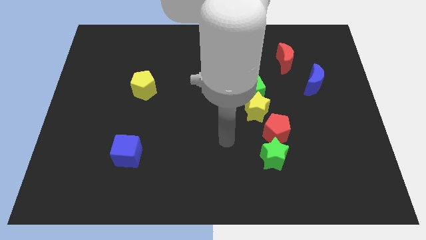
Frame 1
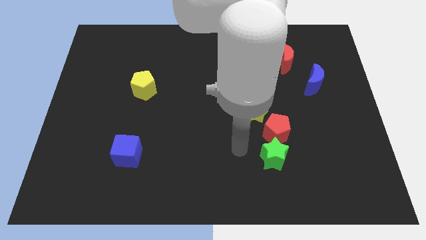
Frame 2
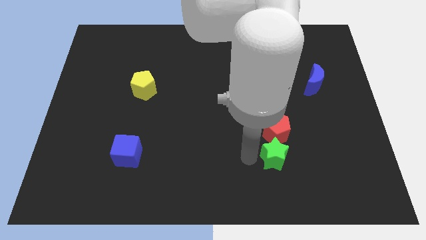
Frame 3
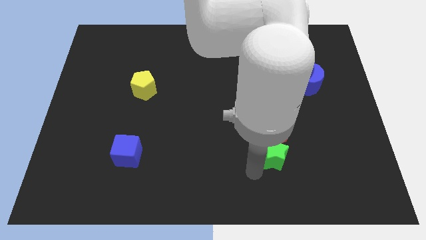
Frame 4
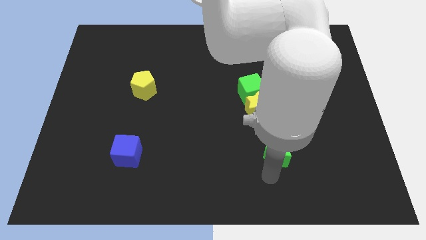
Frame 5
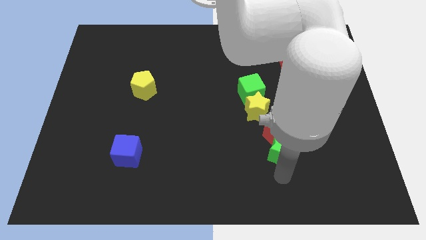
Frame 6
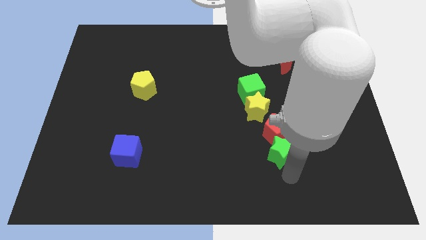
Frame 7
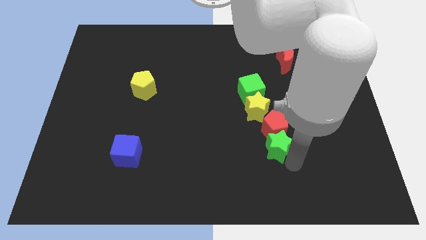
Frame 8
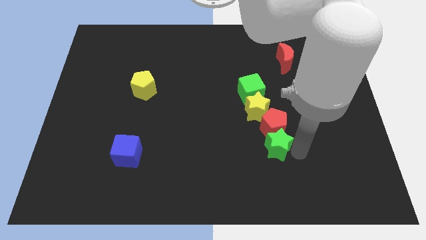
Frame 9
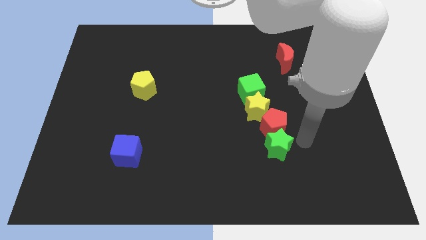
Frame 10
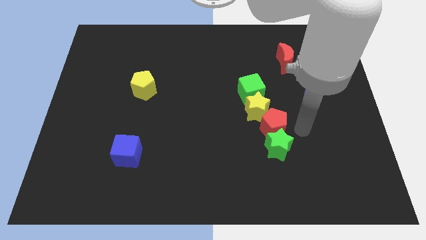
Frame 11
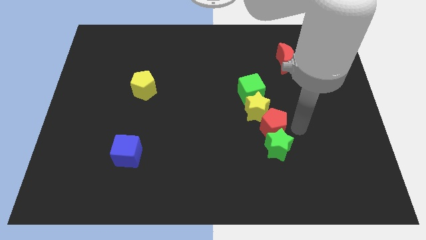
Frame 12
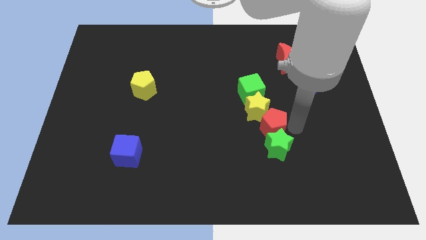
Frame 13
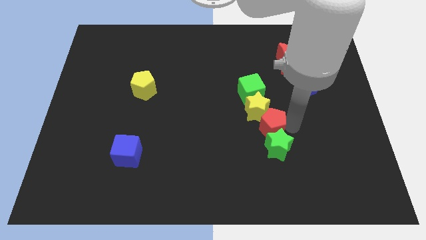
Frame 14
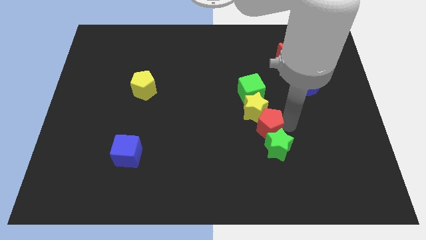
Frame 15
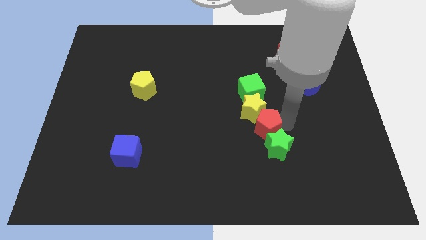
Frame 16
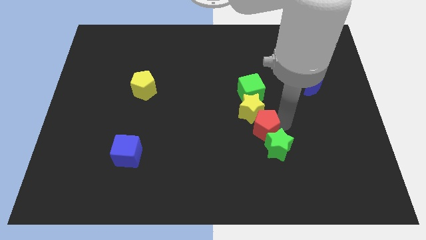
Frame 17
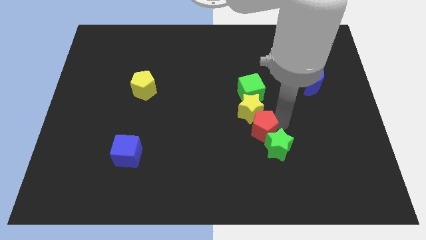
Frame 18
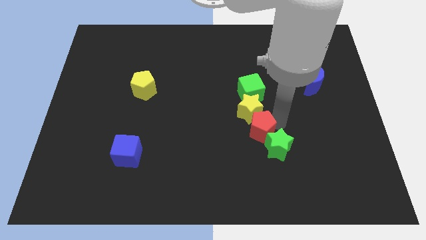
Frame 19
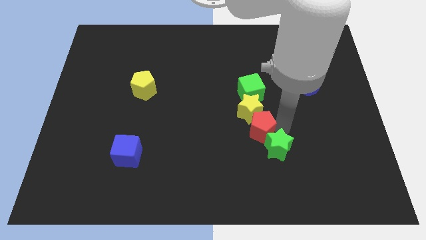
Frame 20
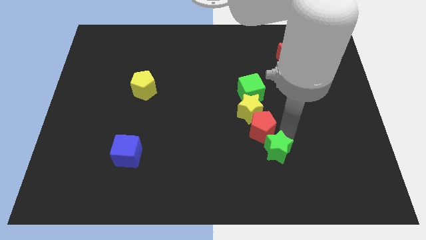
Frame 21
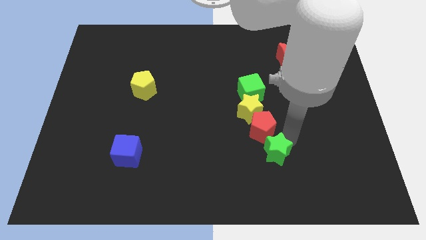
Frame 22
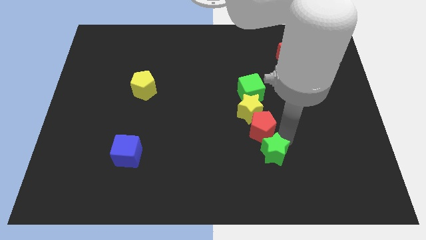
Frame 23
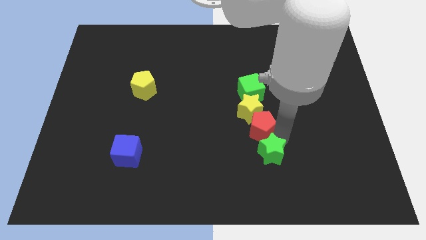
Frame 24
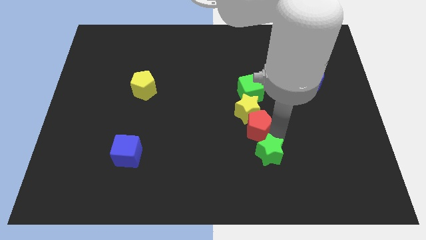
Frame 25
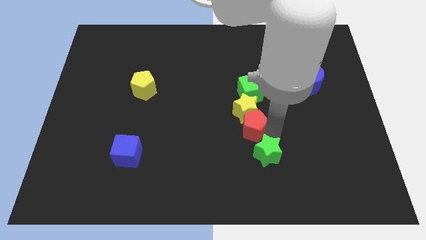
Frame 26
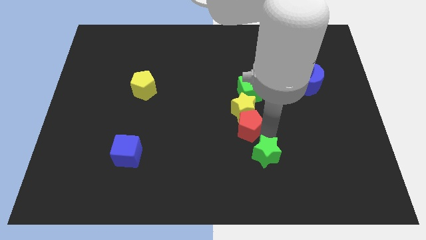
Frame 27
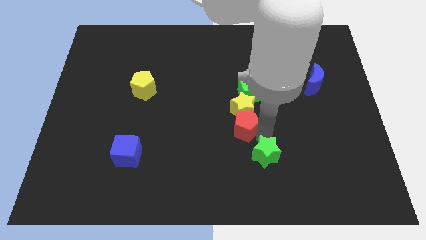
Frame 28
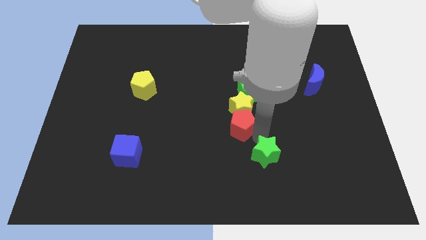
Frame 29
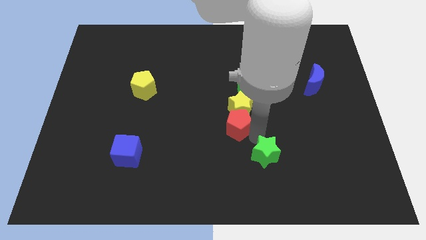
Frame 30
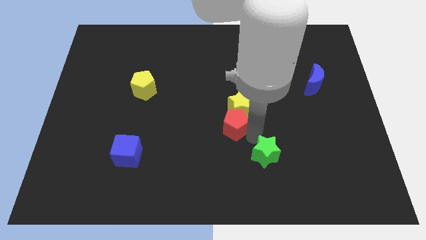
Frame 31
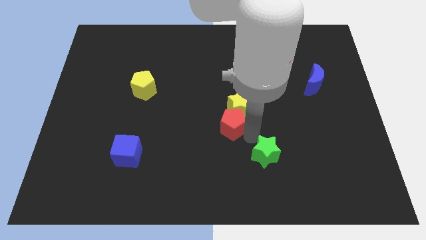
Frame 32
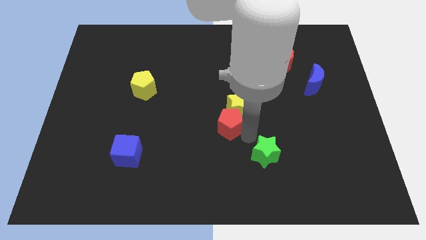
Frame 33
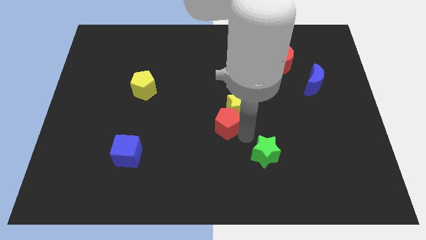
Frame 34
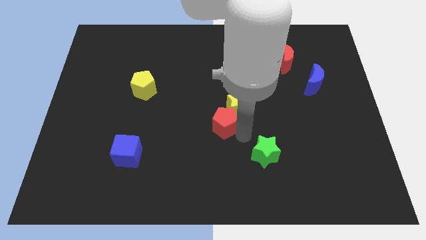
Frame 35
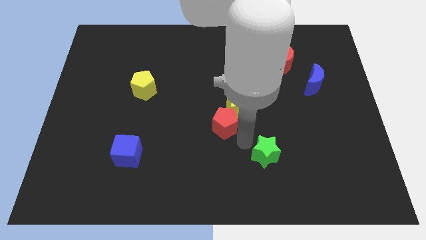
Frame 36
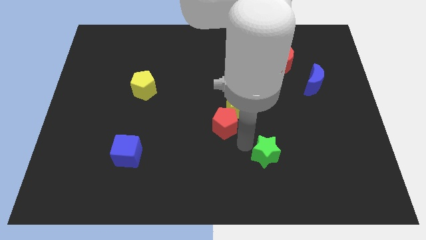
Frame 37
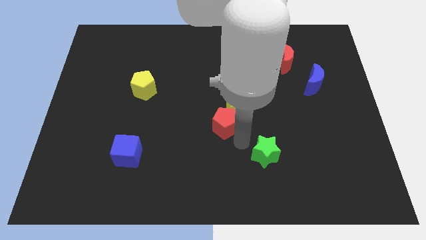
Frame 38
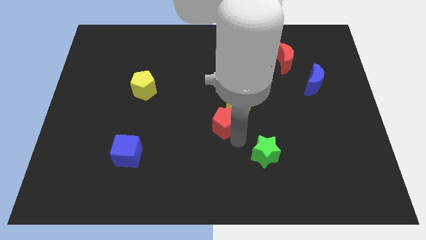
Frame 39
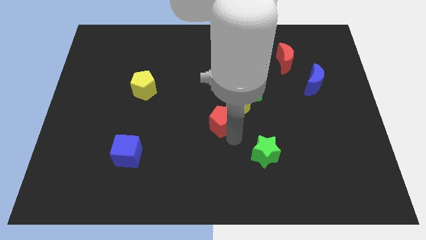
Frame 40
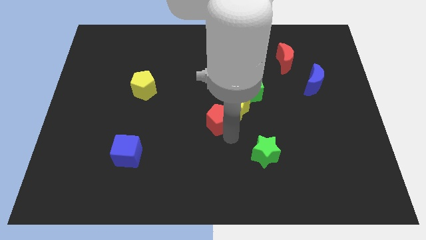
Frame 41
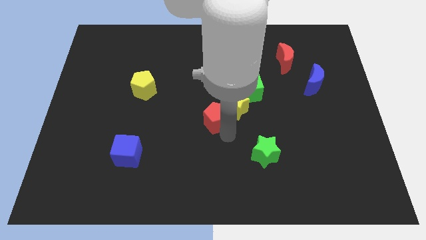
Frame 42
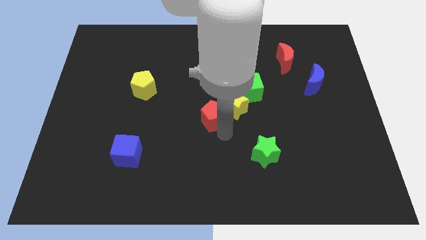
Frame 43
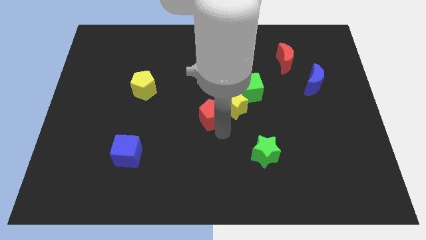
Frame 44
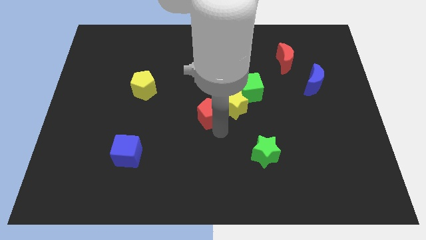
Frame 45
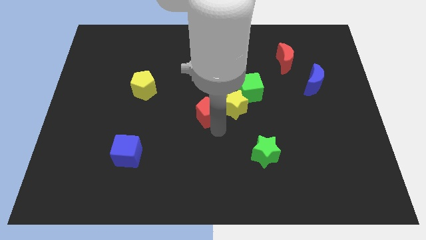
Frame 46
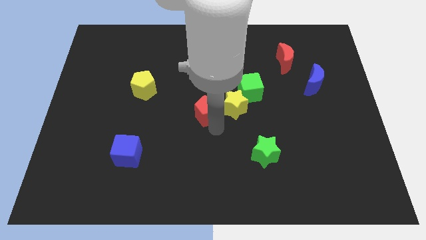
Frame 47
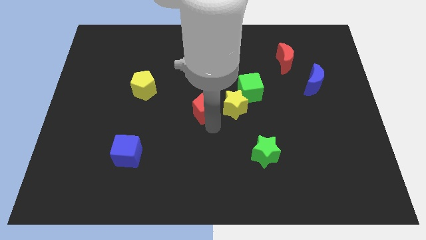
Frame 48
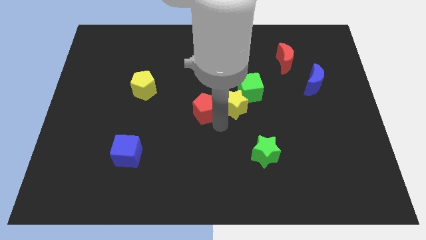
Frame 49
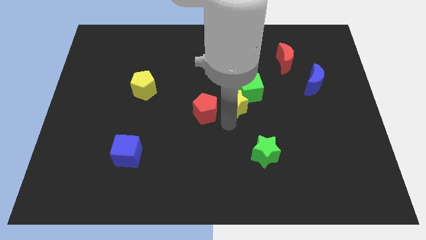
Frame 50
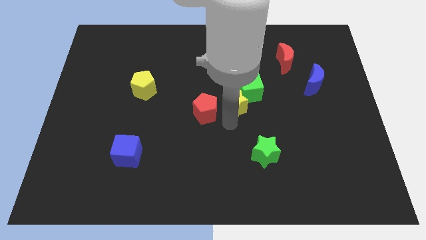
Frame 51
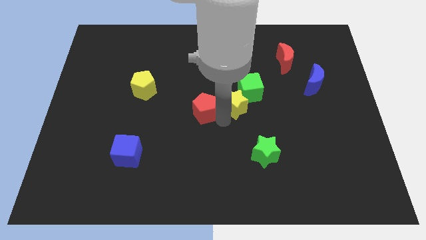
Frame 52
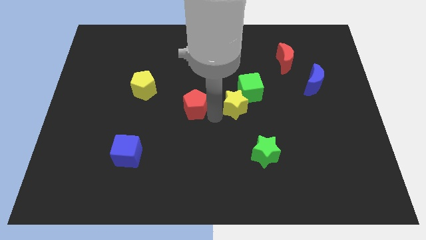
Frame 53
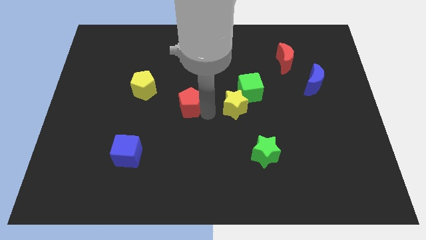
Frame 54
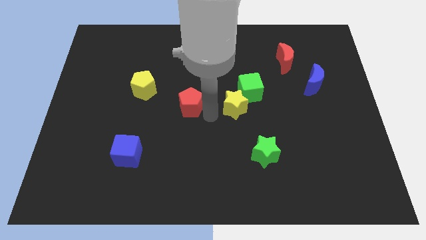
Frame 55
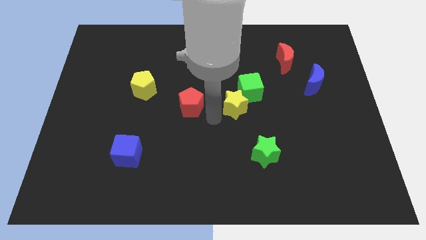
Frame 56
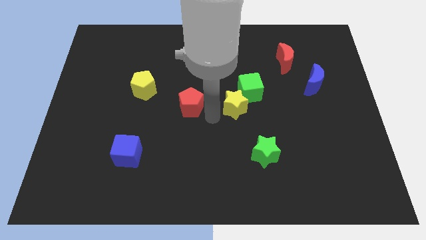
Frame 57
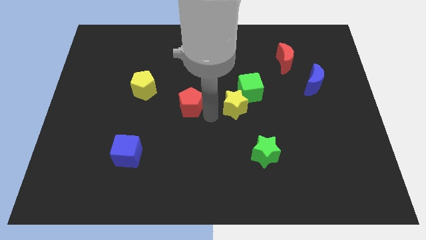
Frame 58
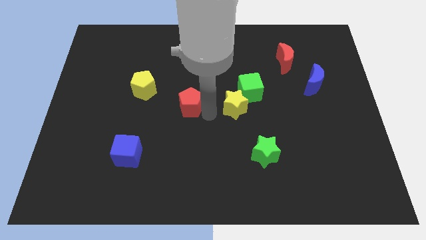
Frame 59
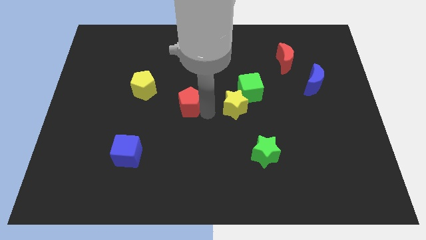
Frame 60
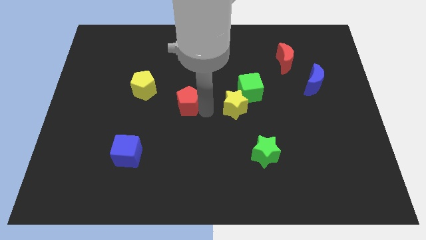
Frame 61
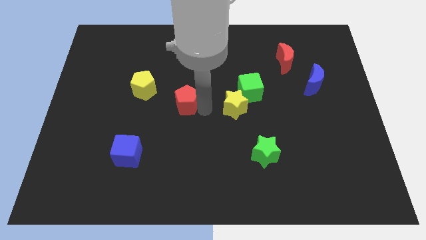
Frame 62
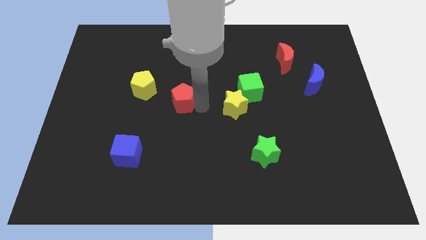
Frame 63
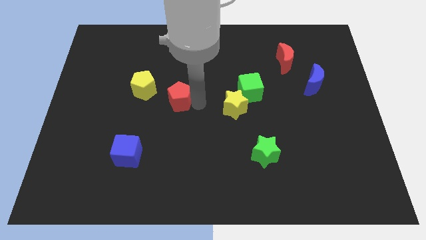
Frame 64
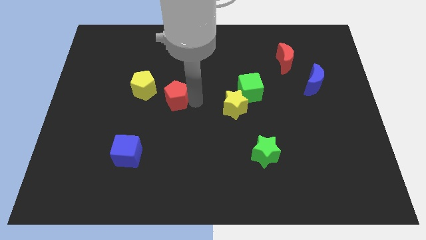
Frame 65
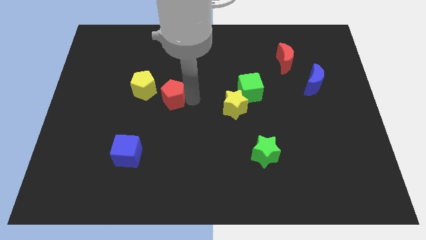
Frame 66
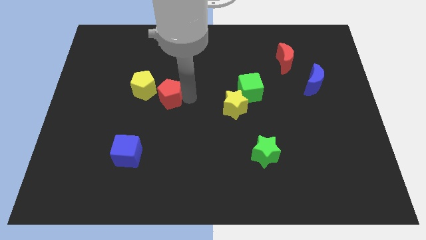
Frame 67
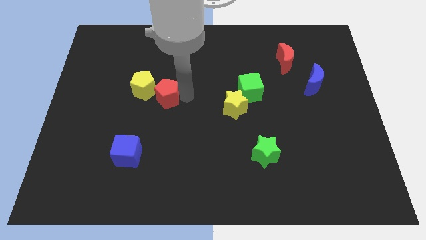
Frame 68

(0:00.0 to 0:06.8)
put the red pentagon towards the yellow pentagon
